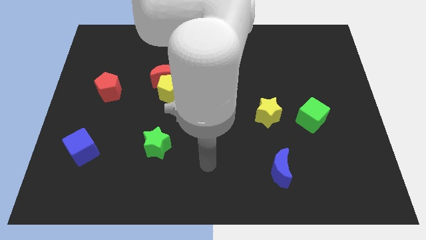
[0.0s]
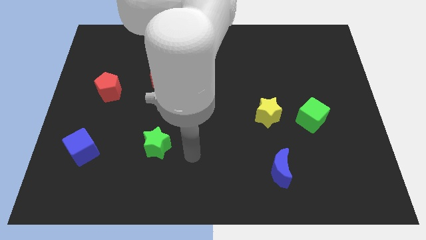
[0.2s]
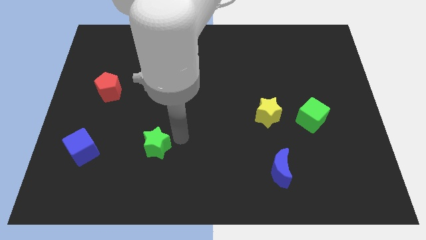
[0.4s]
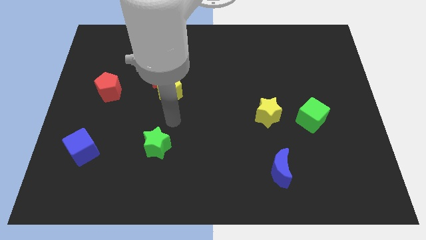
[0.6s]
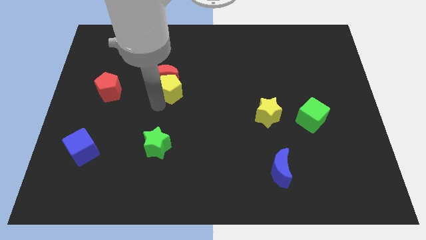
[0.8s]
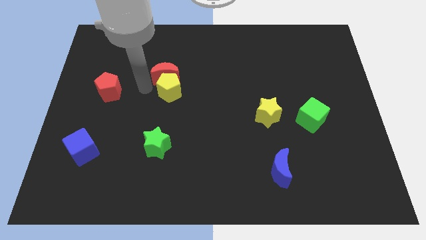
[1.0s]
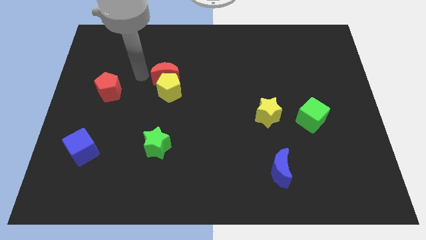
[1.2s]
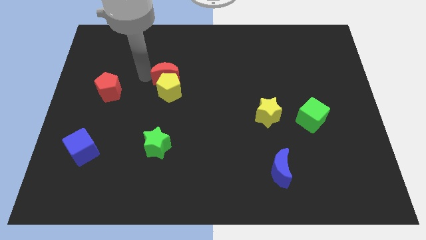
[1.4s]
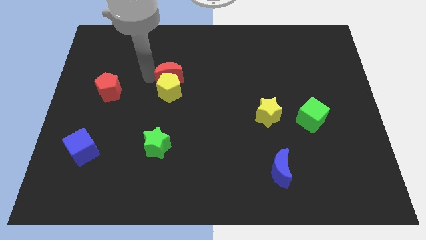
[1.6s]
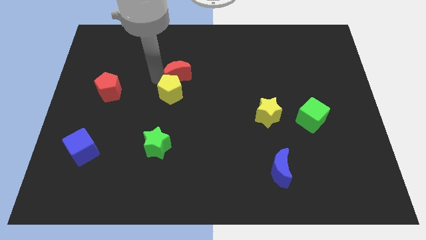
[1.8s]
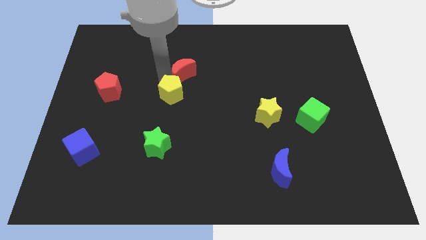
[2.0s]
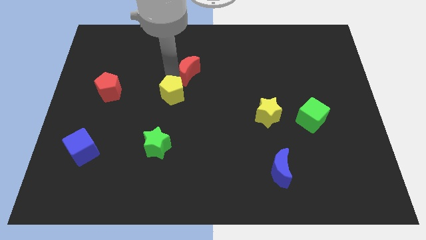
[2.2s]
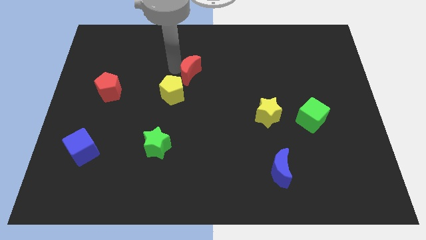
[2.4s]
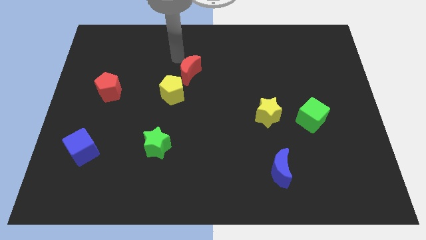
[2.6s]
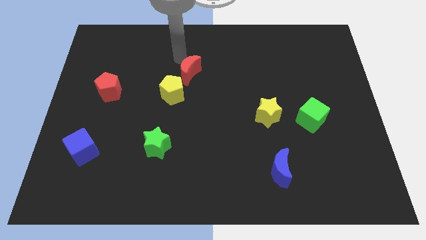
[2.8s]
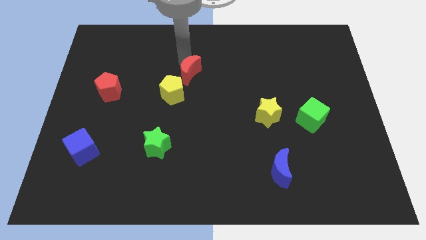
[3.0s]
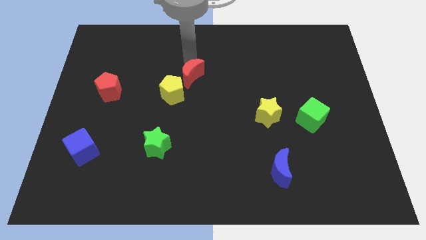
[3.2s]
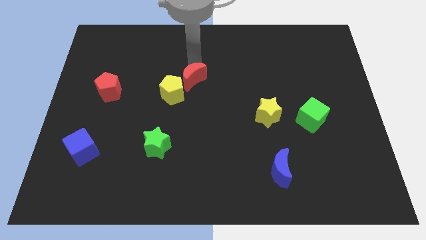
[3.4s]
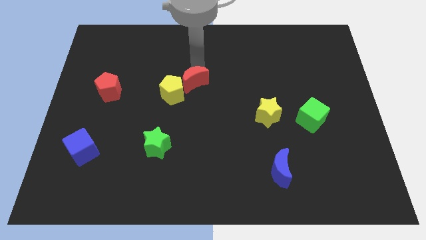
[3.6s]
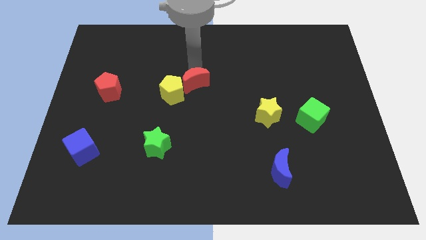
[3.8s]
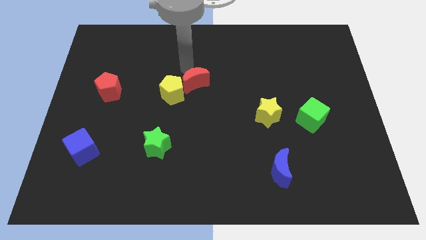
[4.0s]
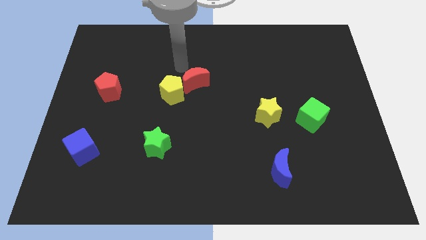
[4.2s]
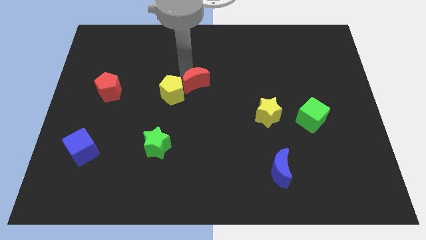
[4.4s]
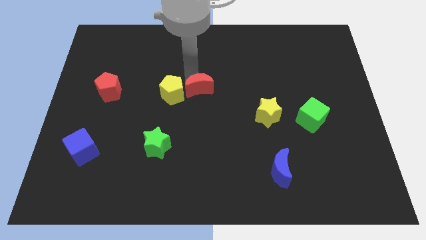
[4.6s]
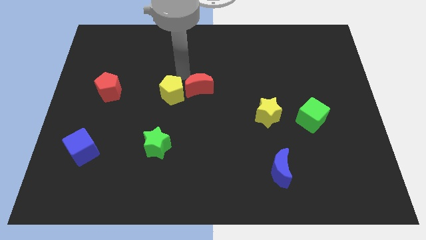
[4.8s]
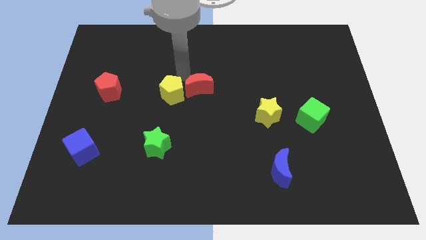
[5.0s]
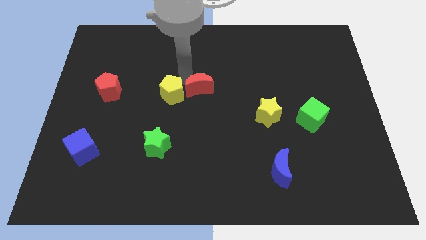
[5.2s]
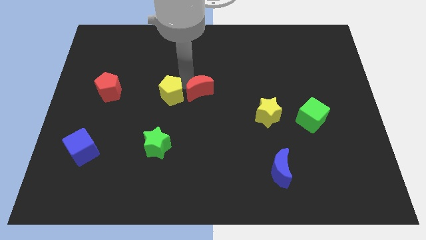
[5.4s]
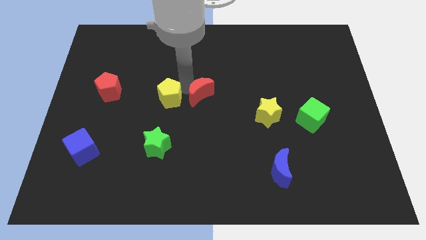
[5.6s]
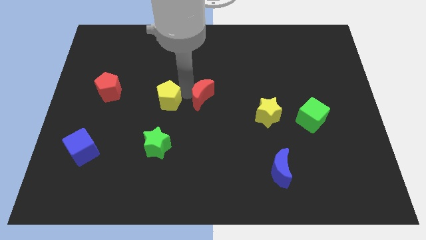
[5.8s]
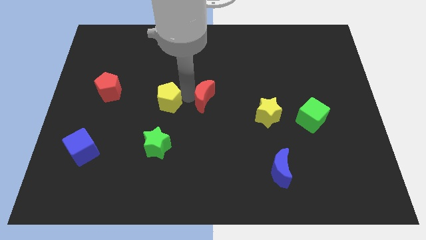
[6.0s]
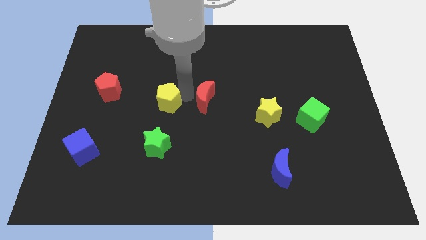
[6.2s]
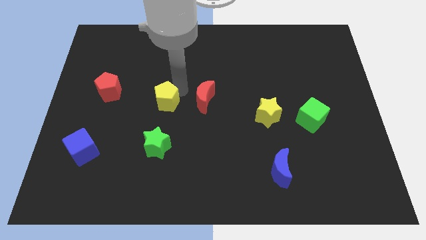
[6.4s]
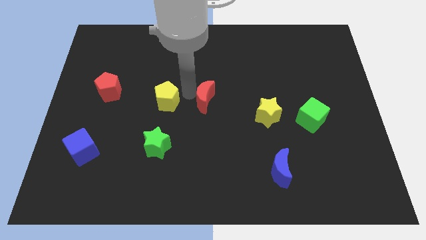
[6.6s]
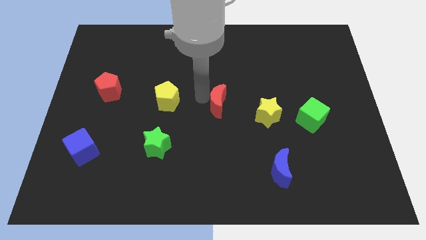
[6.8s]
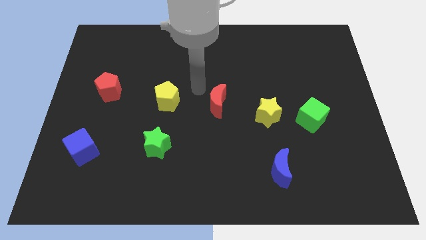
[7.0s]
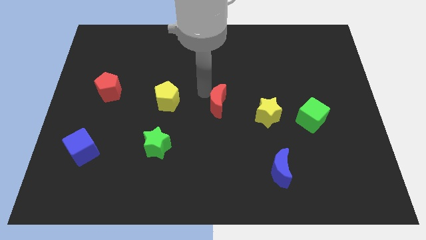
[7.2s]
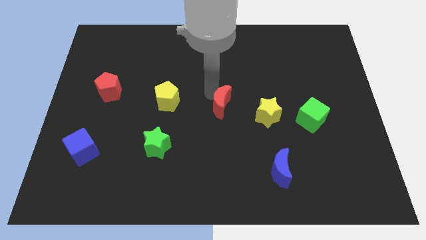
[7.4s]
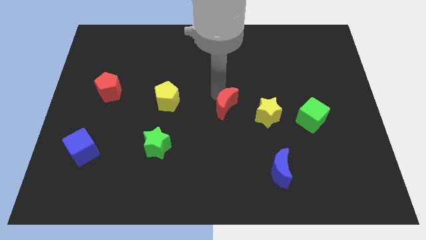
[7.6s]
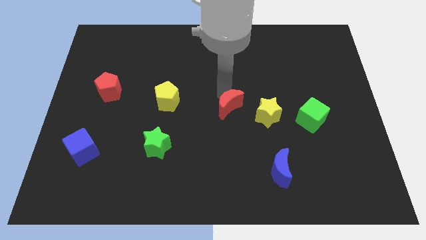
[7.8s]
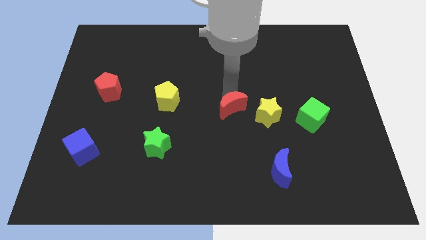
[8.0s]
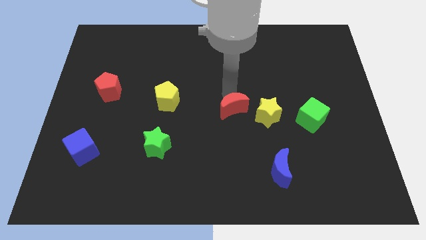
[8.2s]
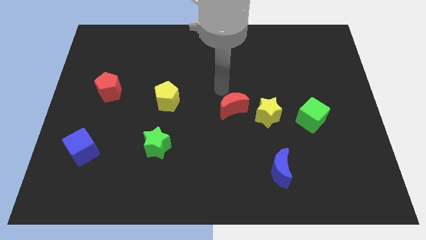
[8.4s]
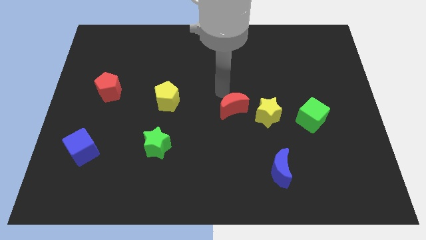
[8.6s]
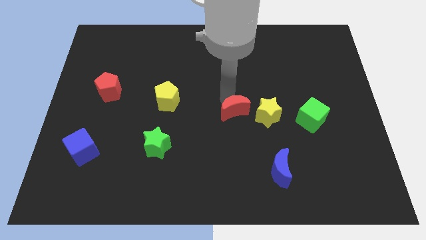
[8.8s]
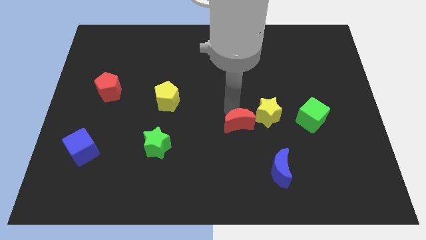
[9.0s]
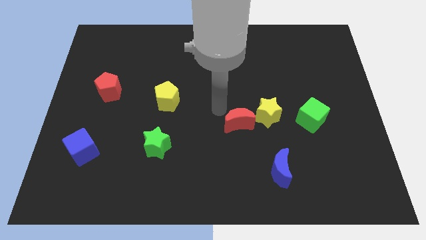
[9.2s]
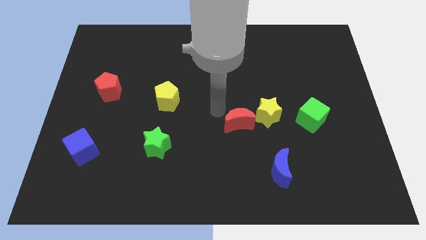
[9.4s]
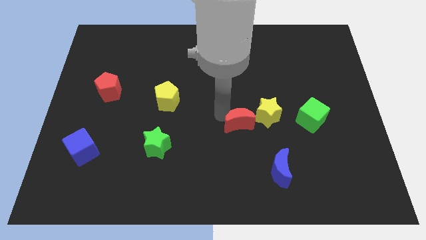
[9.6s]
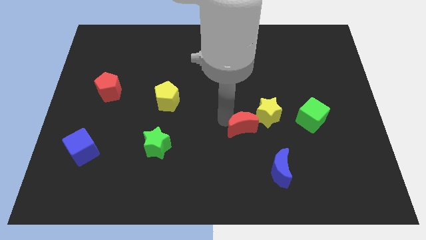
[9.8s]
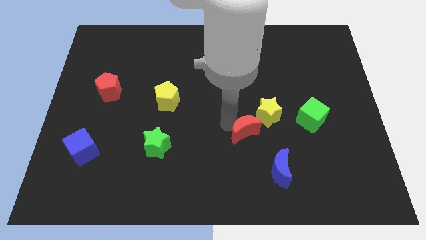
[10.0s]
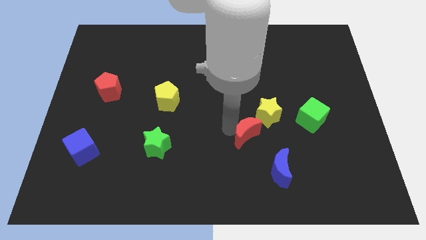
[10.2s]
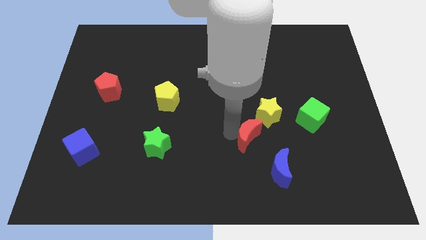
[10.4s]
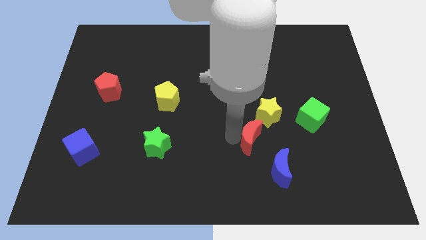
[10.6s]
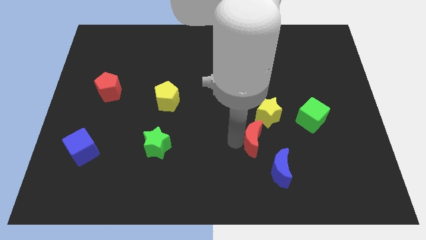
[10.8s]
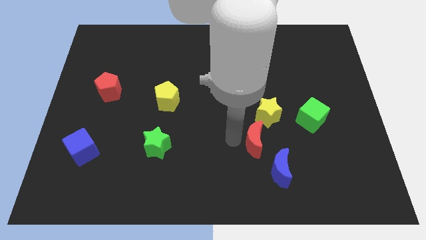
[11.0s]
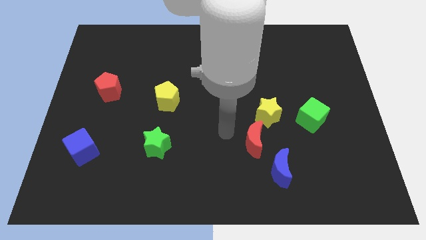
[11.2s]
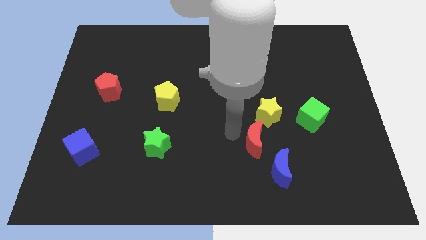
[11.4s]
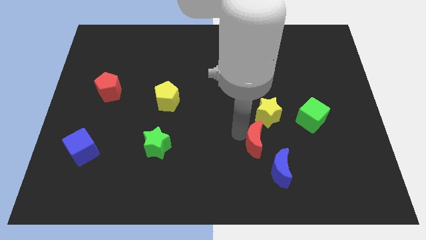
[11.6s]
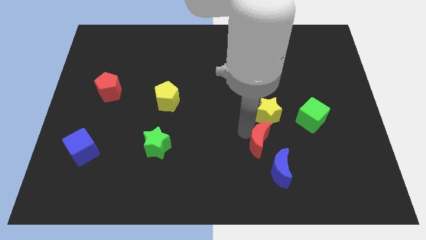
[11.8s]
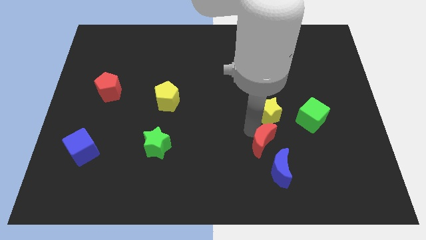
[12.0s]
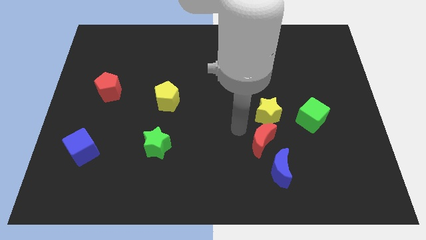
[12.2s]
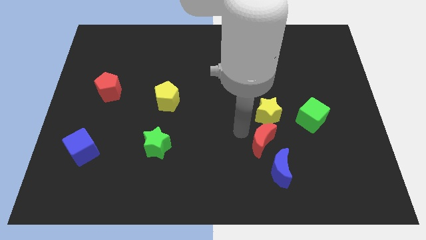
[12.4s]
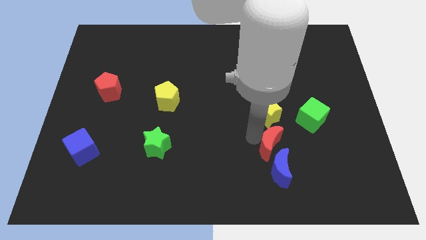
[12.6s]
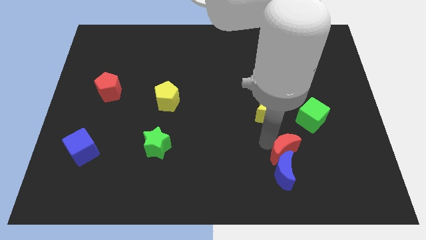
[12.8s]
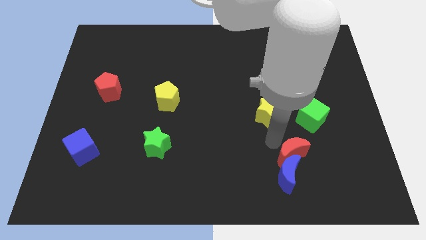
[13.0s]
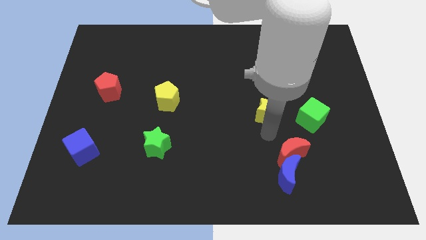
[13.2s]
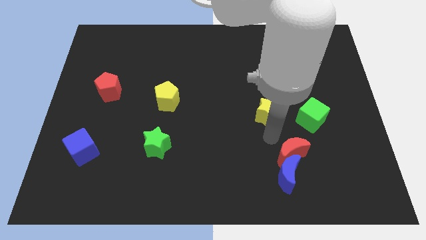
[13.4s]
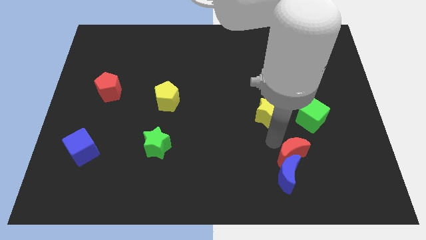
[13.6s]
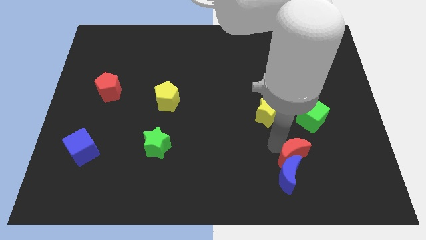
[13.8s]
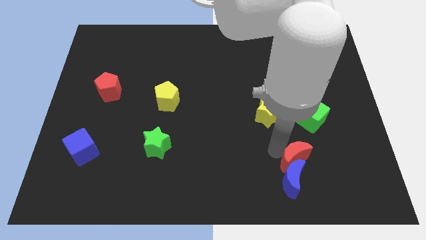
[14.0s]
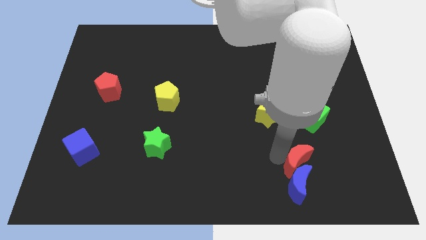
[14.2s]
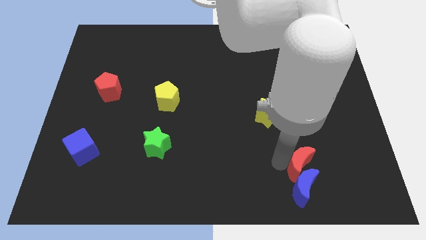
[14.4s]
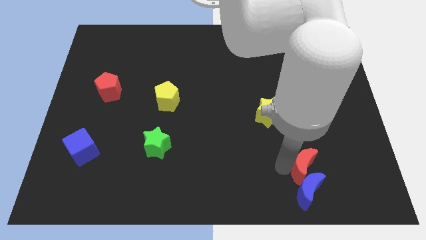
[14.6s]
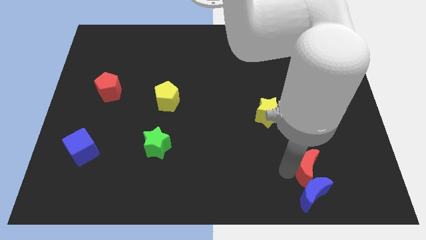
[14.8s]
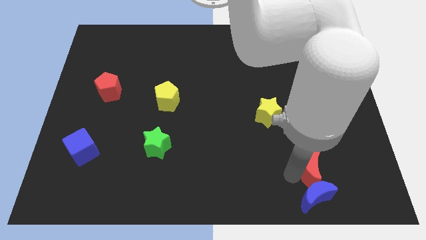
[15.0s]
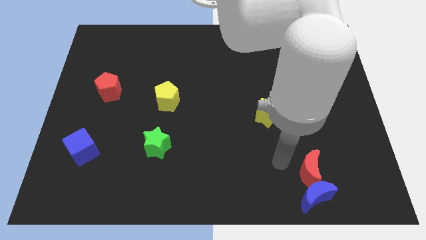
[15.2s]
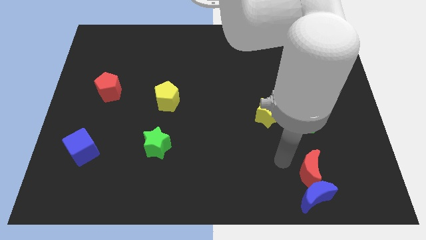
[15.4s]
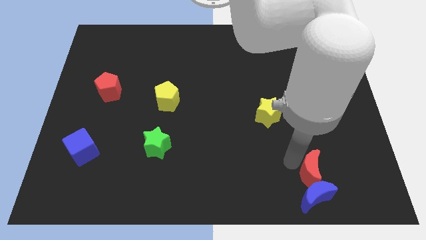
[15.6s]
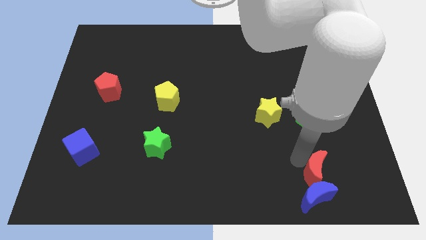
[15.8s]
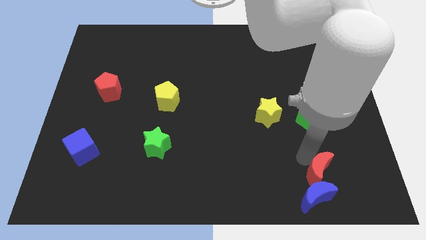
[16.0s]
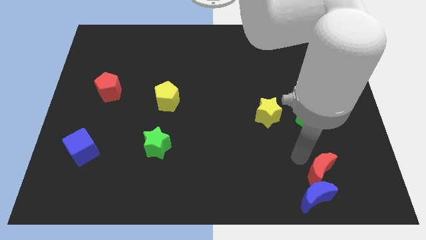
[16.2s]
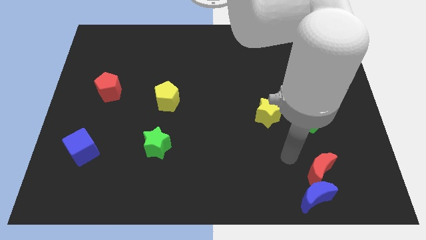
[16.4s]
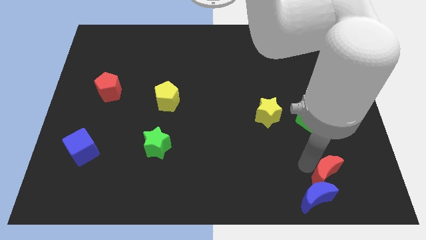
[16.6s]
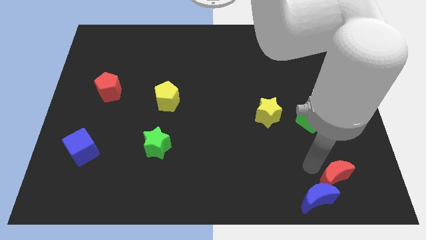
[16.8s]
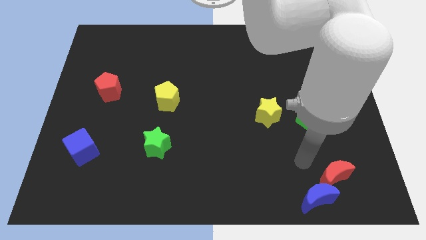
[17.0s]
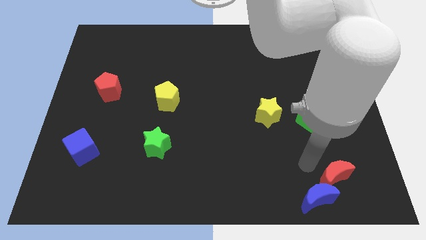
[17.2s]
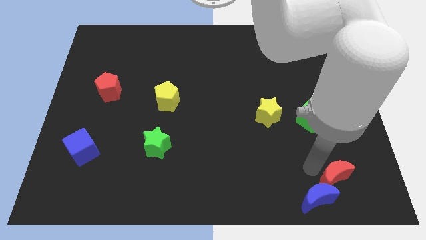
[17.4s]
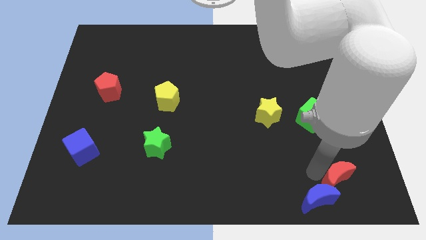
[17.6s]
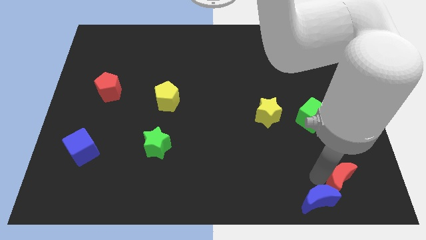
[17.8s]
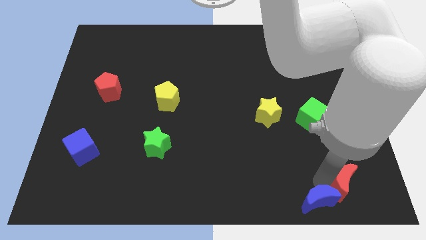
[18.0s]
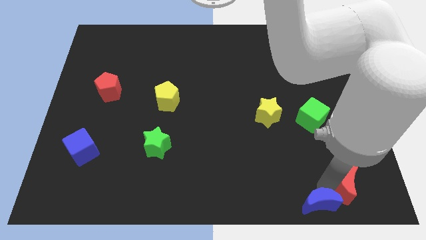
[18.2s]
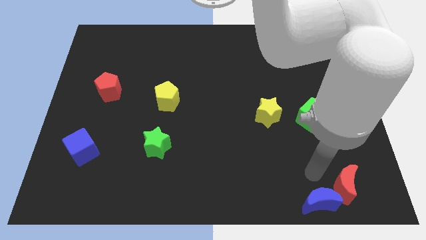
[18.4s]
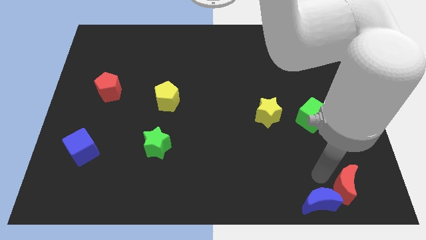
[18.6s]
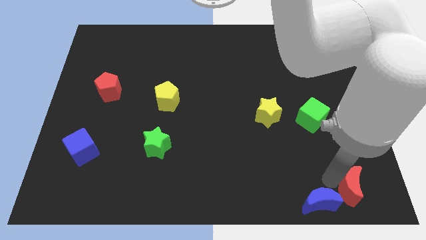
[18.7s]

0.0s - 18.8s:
put the red moon to the bottom right
